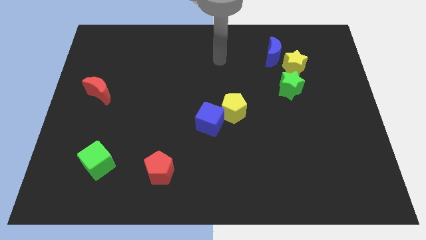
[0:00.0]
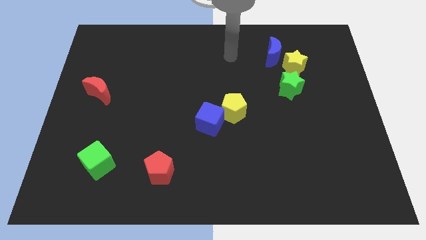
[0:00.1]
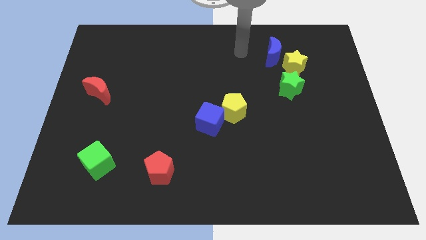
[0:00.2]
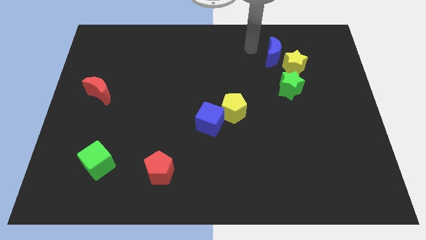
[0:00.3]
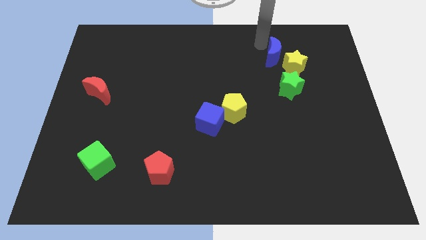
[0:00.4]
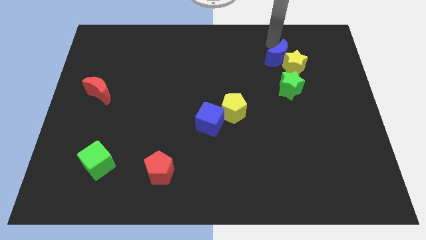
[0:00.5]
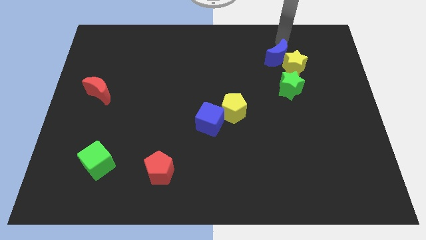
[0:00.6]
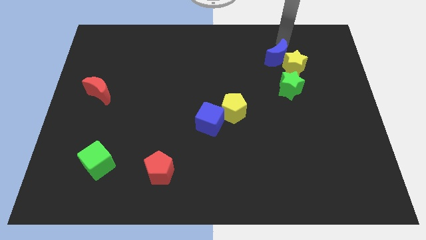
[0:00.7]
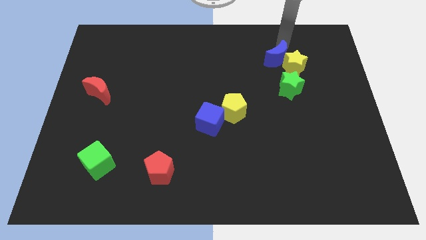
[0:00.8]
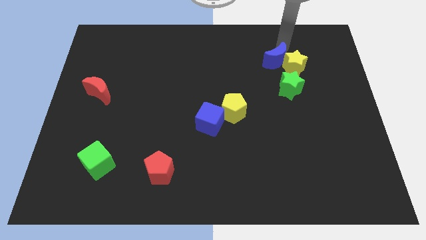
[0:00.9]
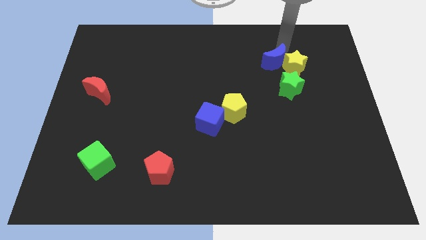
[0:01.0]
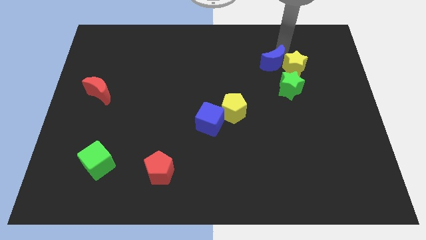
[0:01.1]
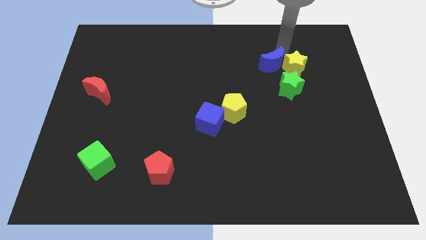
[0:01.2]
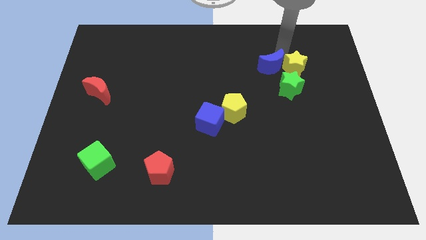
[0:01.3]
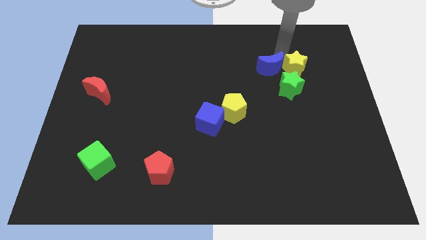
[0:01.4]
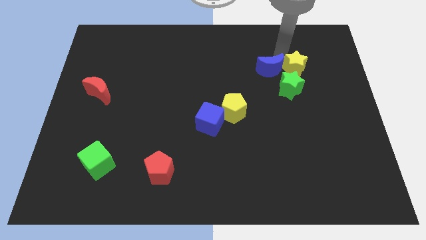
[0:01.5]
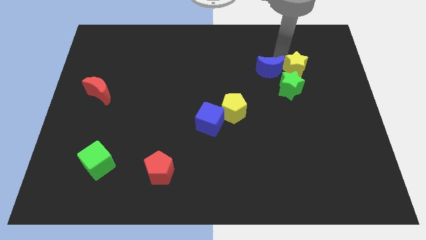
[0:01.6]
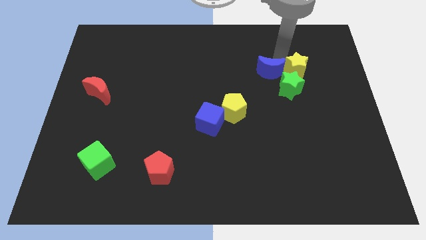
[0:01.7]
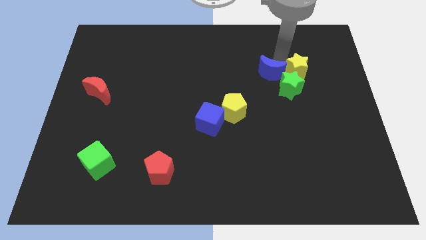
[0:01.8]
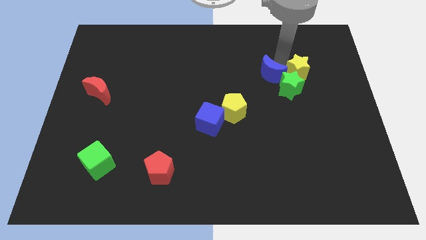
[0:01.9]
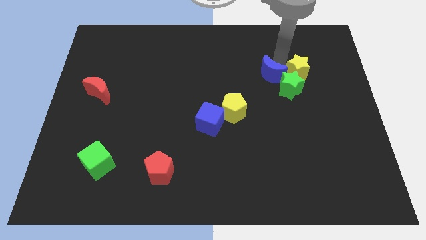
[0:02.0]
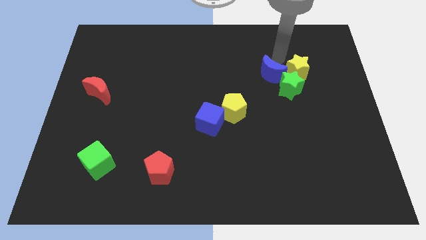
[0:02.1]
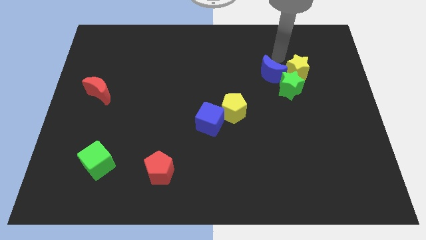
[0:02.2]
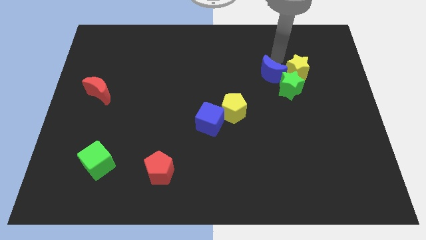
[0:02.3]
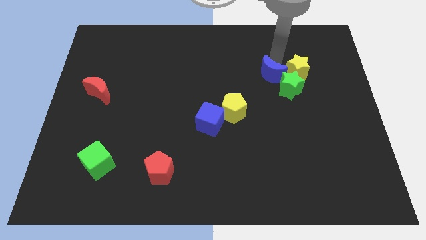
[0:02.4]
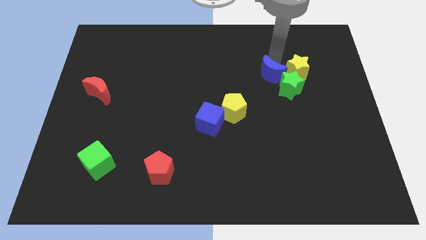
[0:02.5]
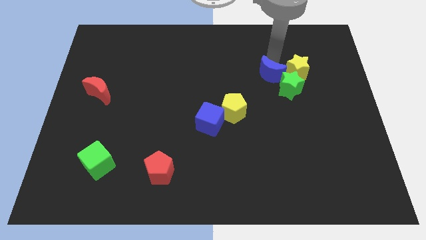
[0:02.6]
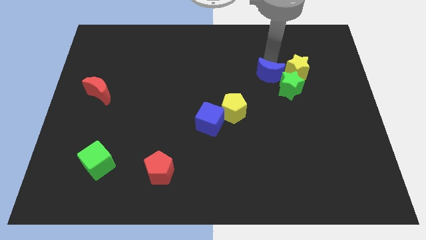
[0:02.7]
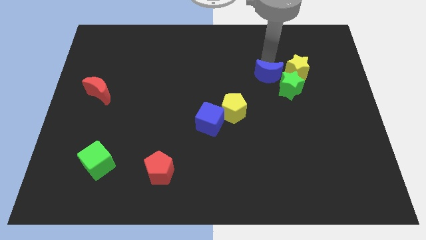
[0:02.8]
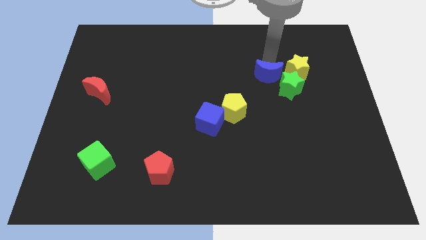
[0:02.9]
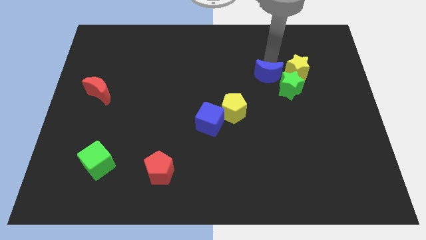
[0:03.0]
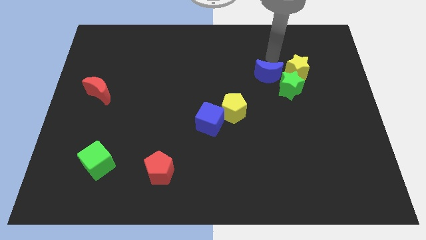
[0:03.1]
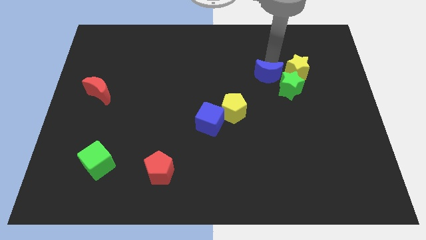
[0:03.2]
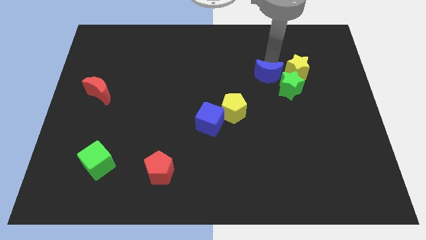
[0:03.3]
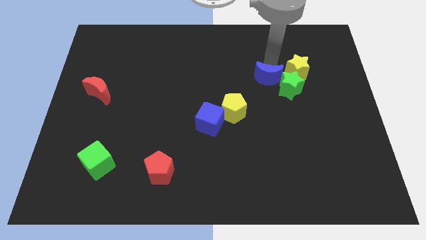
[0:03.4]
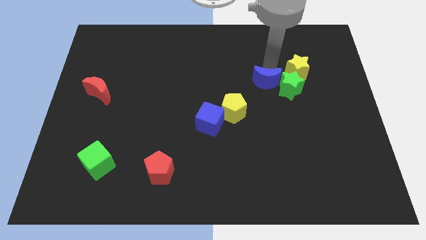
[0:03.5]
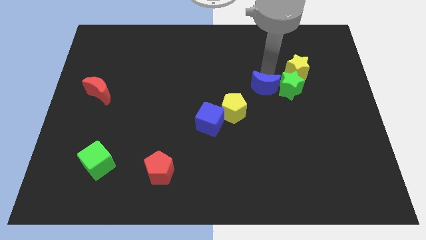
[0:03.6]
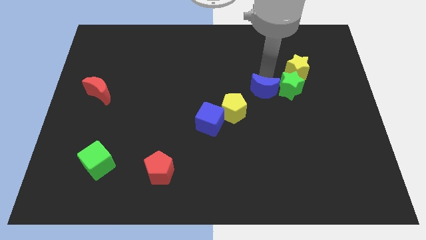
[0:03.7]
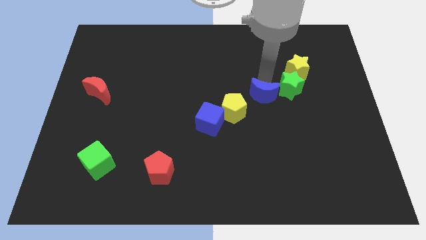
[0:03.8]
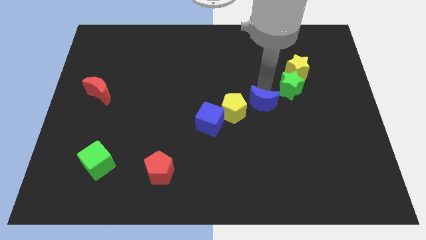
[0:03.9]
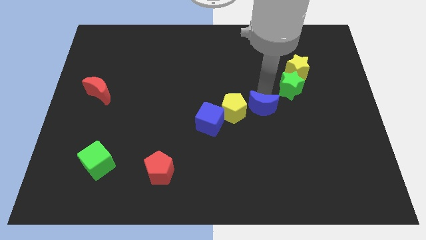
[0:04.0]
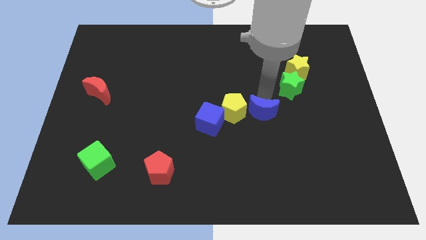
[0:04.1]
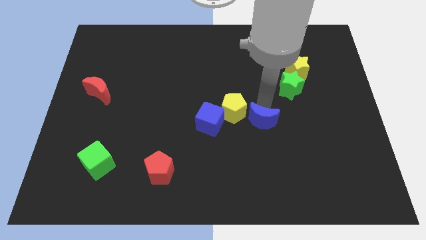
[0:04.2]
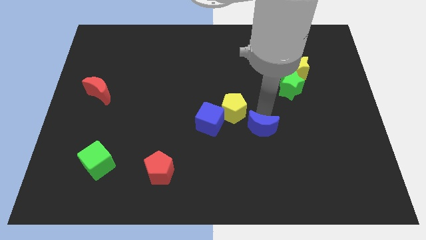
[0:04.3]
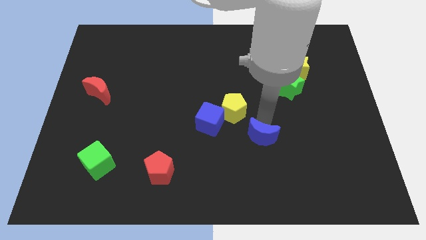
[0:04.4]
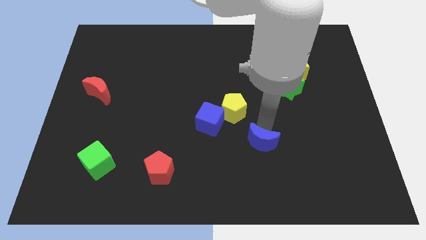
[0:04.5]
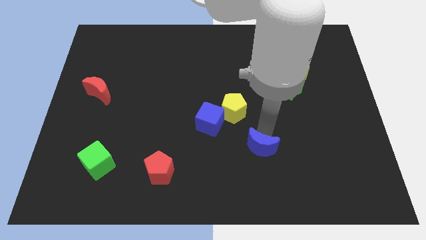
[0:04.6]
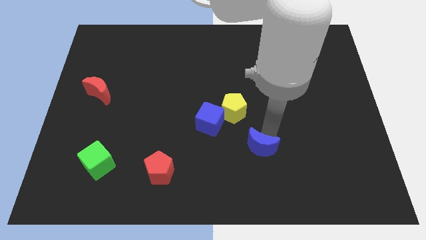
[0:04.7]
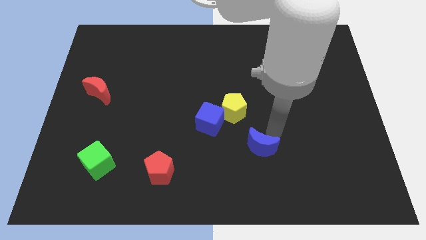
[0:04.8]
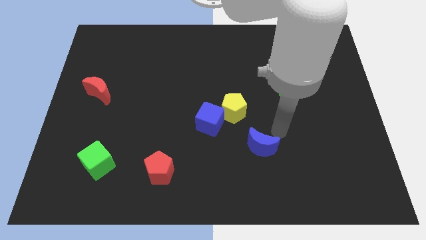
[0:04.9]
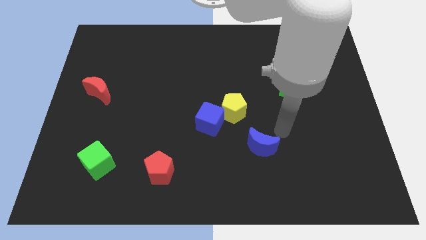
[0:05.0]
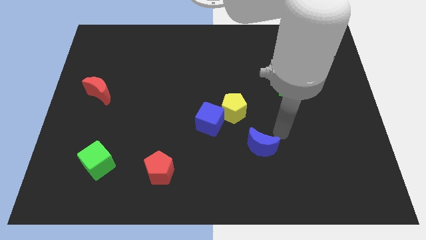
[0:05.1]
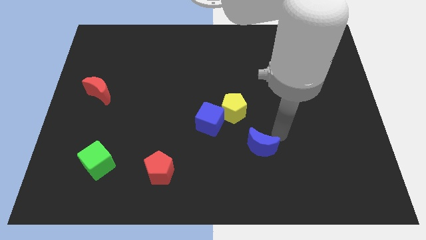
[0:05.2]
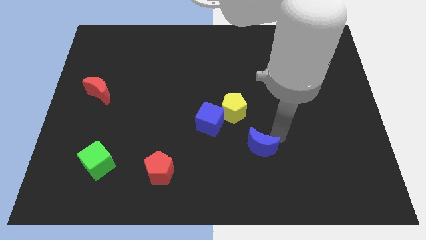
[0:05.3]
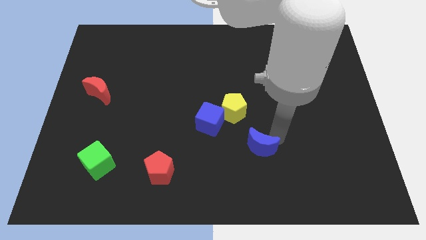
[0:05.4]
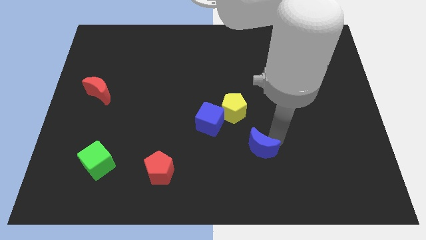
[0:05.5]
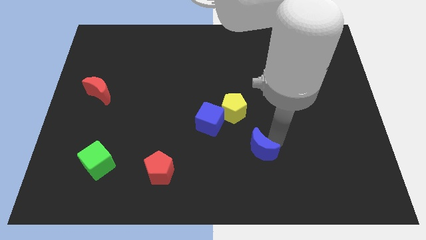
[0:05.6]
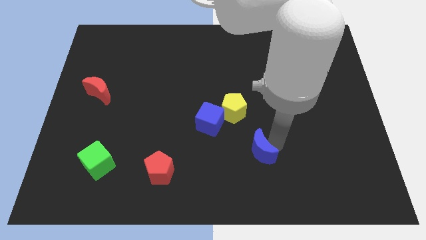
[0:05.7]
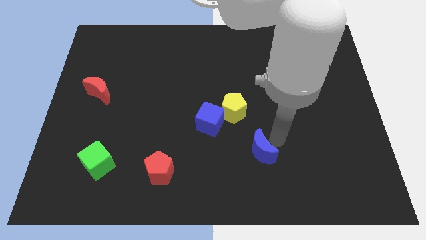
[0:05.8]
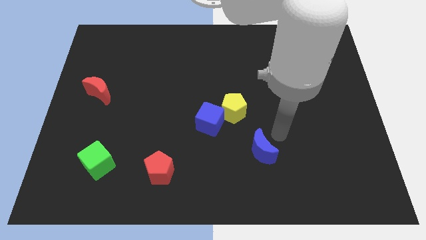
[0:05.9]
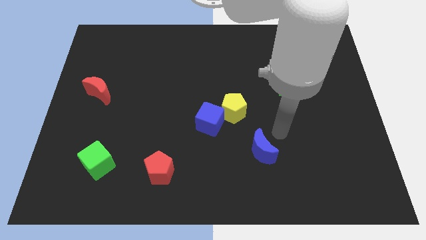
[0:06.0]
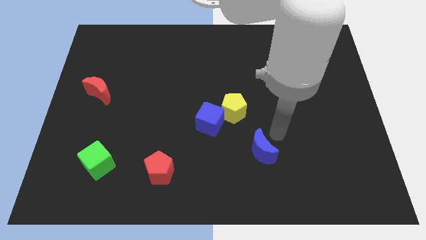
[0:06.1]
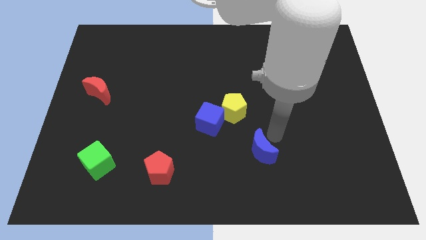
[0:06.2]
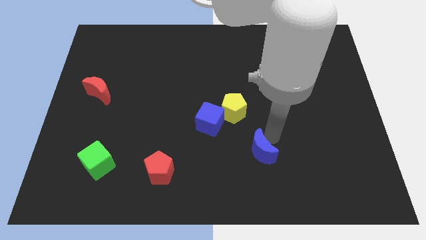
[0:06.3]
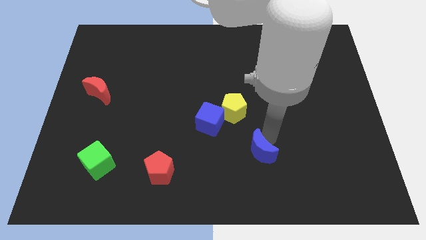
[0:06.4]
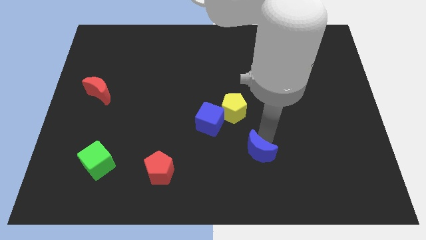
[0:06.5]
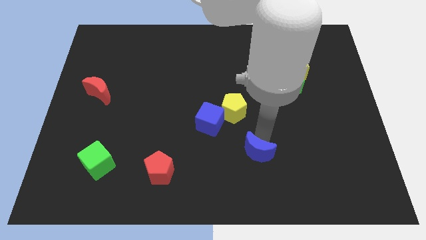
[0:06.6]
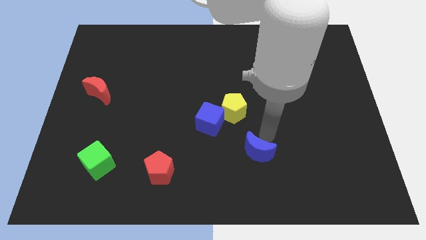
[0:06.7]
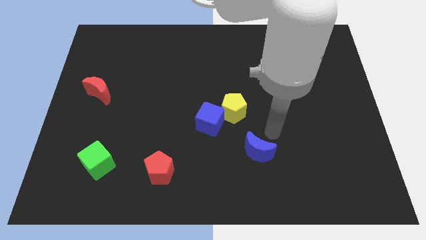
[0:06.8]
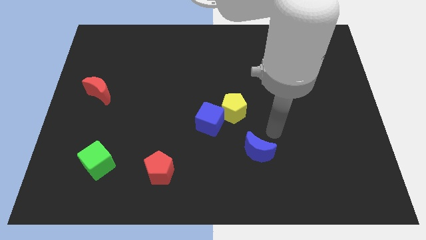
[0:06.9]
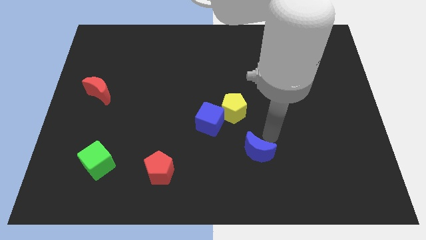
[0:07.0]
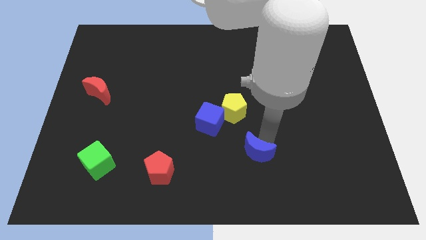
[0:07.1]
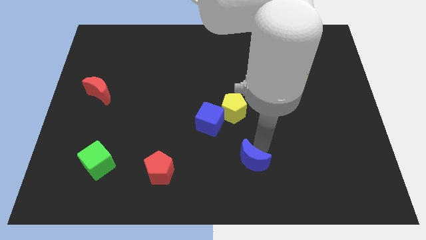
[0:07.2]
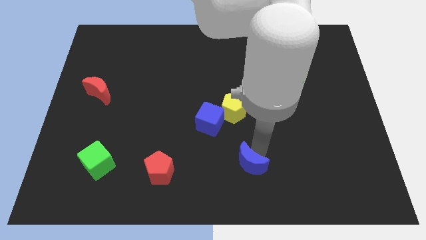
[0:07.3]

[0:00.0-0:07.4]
slide the blue moon to the bottom side
